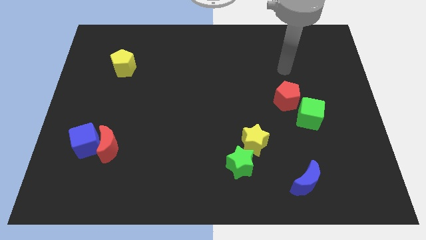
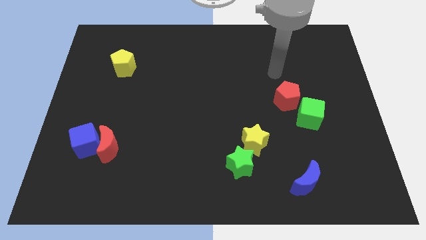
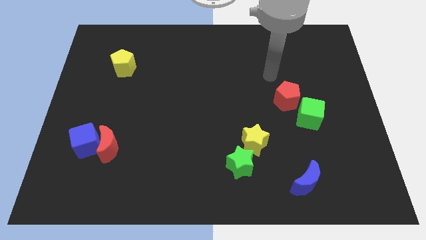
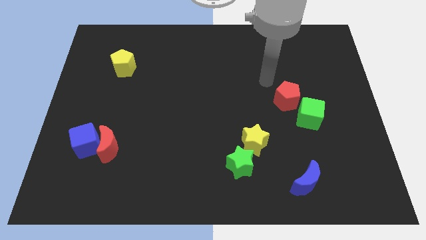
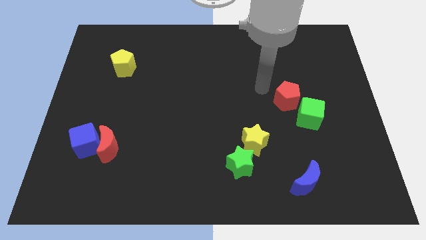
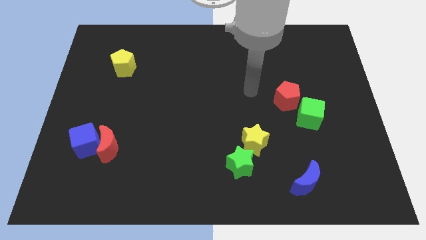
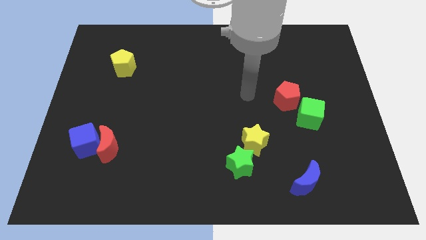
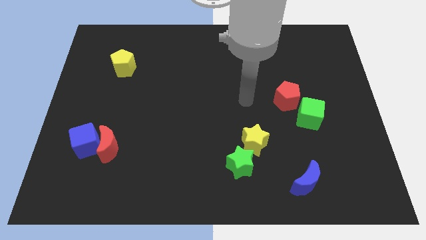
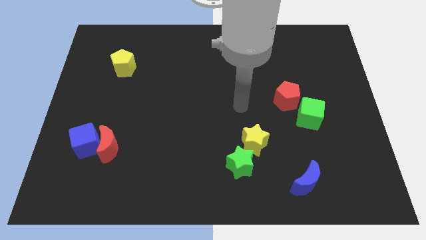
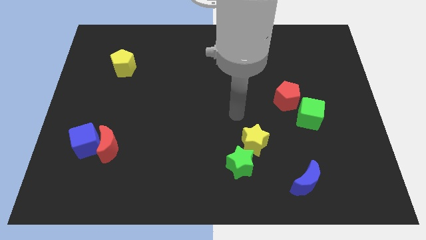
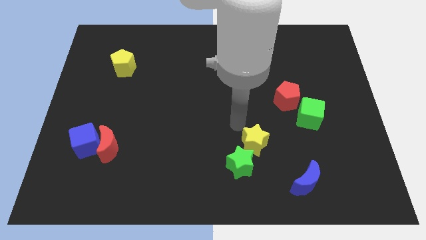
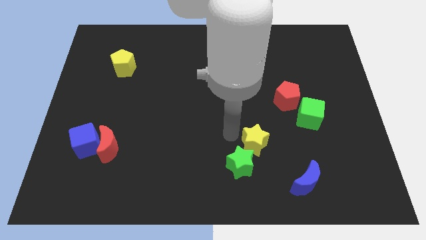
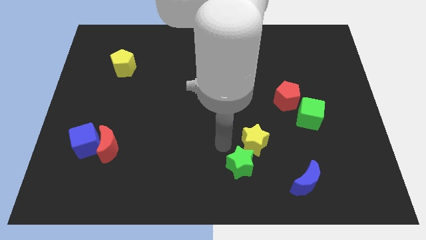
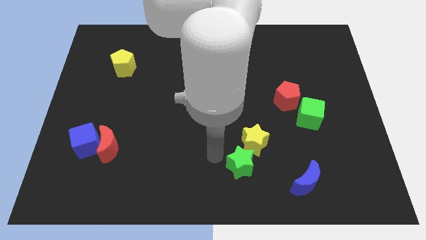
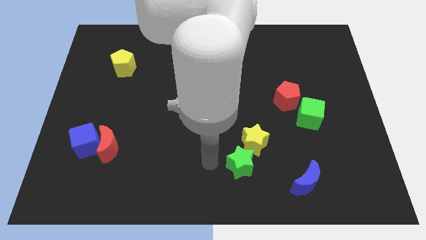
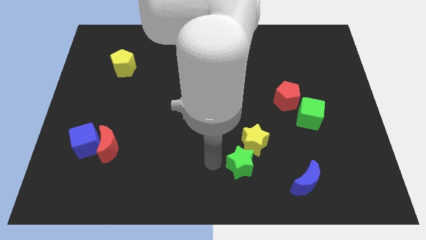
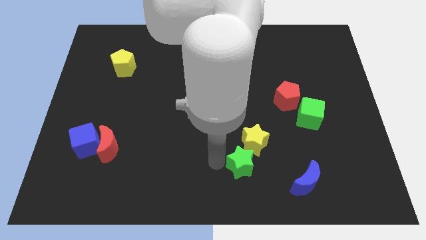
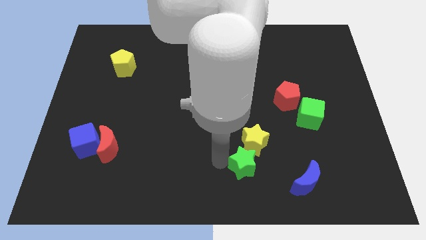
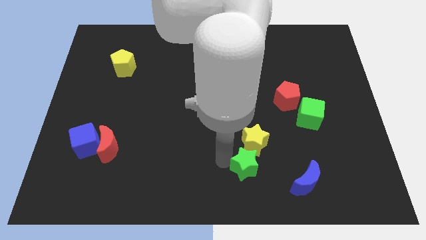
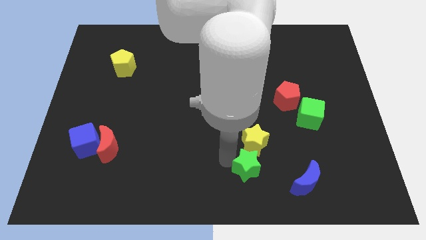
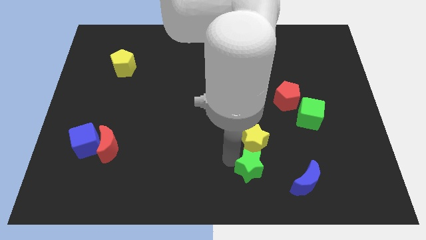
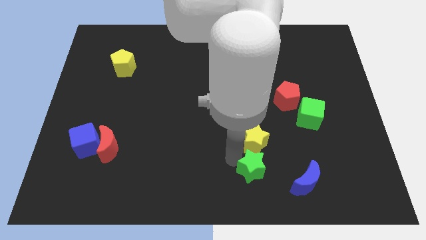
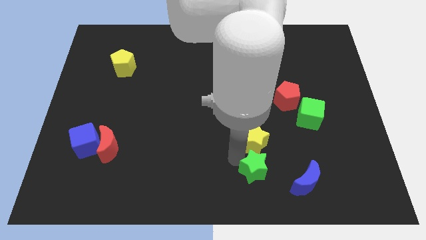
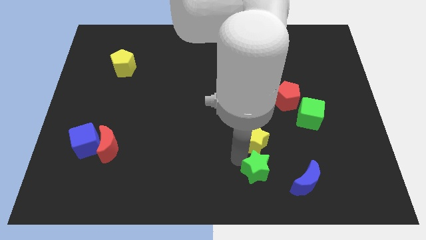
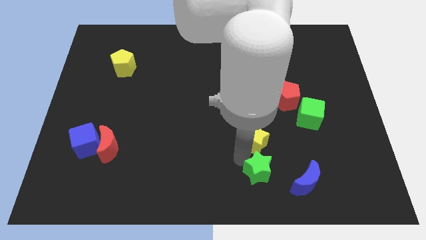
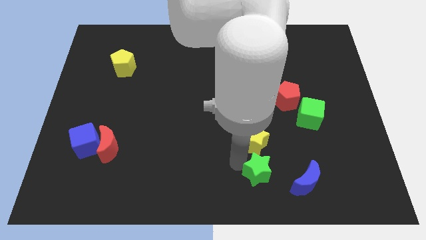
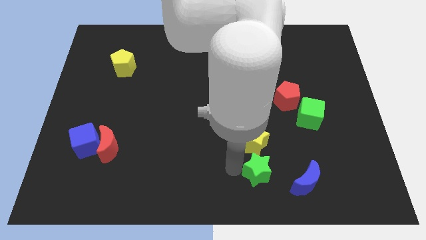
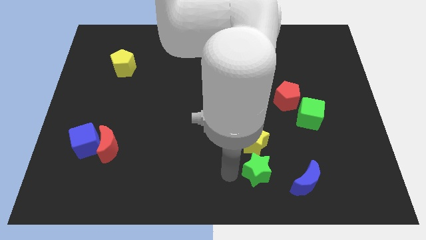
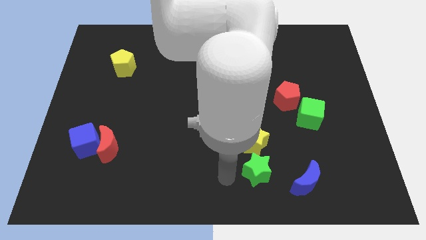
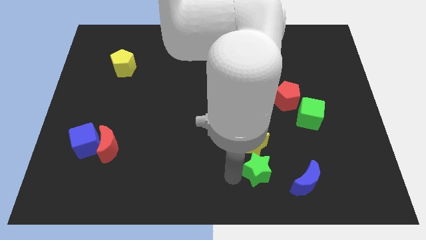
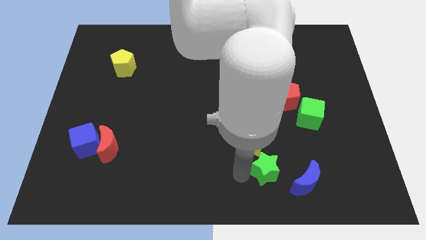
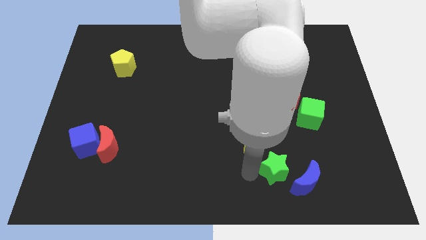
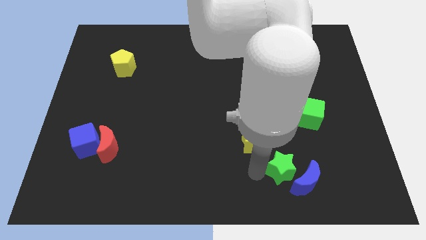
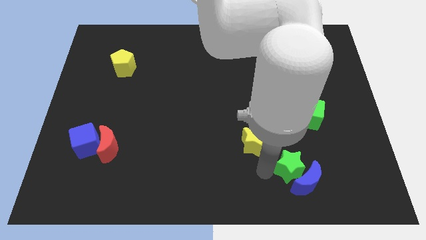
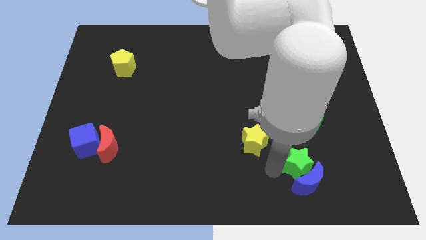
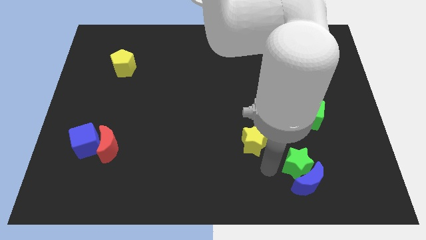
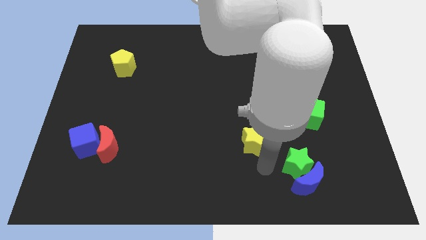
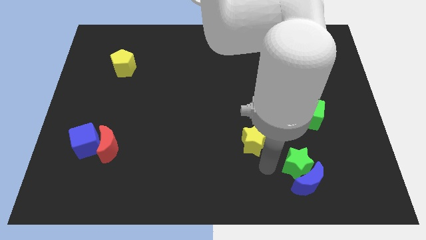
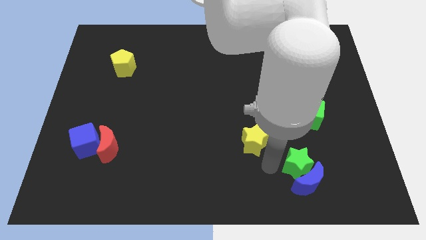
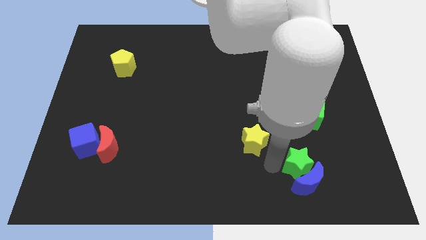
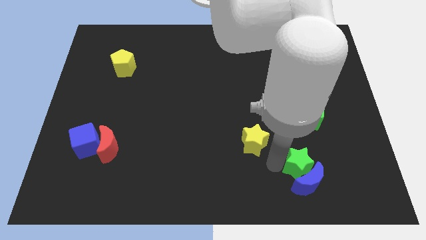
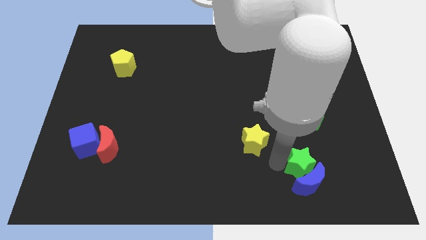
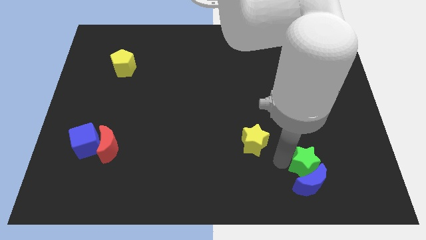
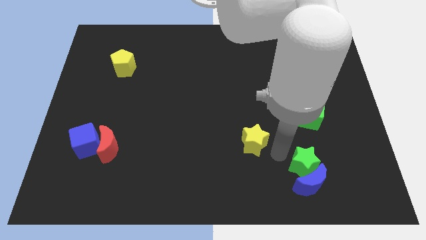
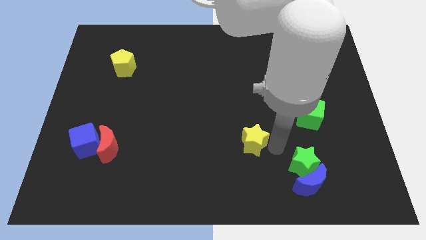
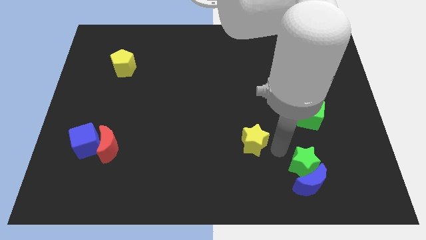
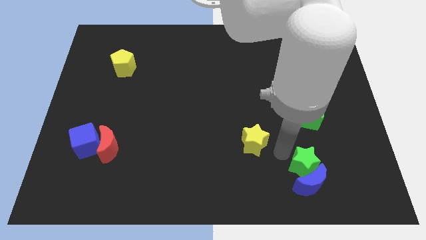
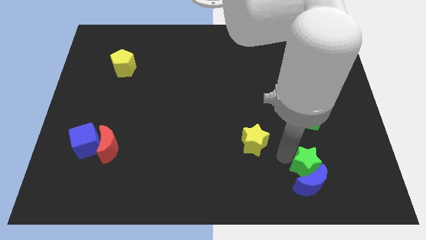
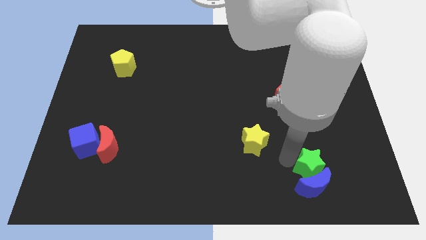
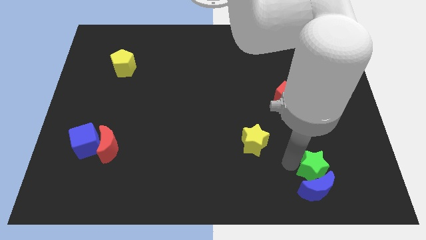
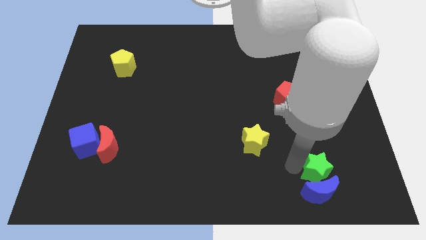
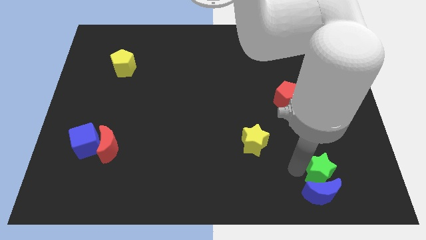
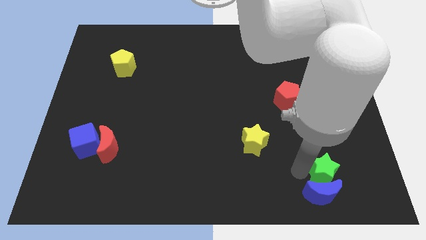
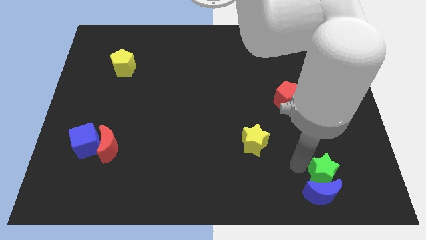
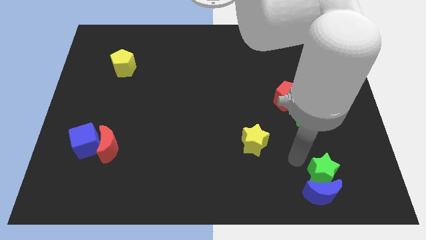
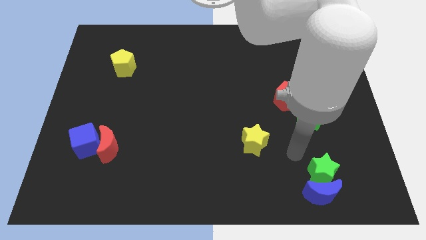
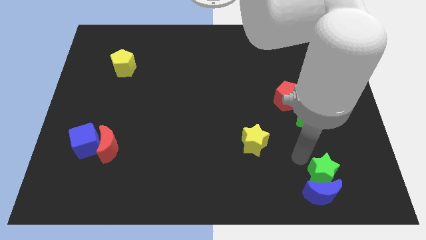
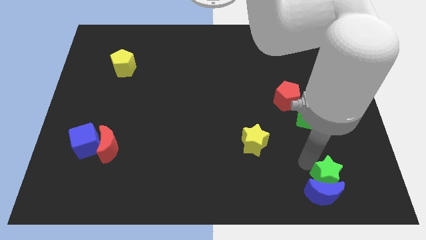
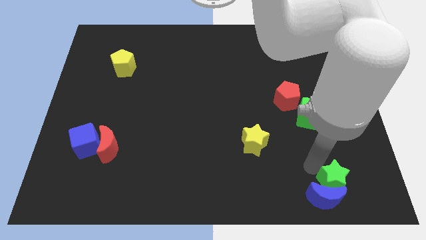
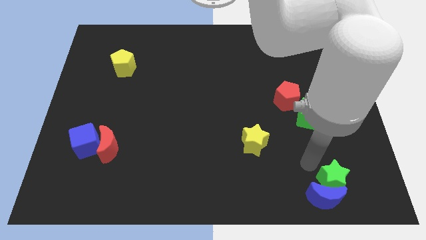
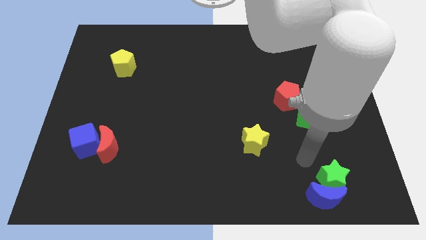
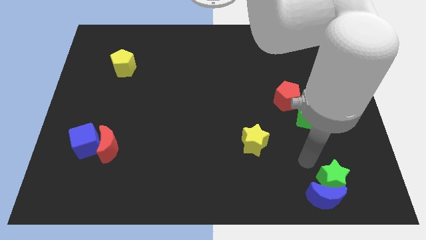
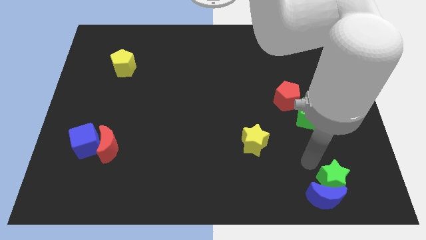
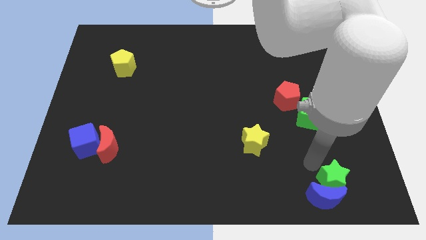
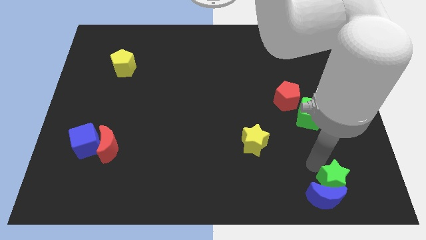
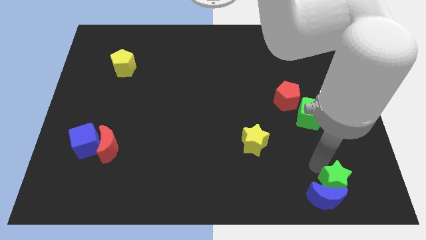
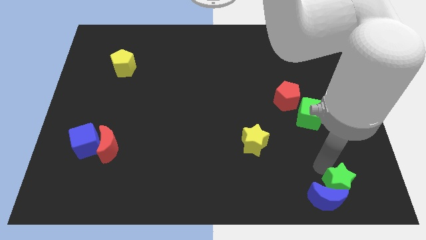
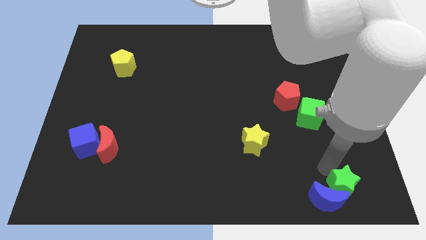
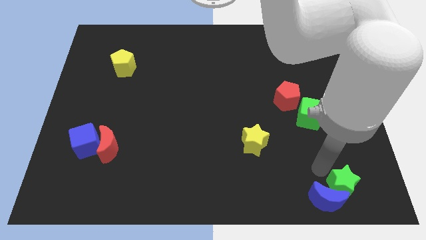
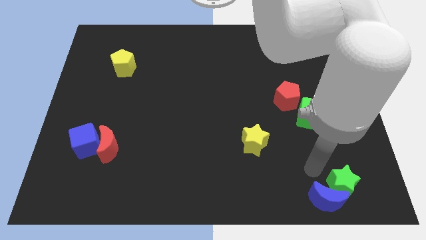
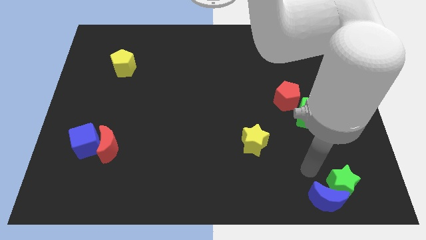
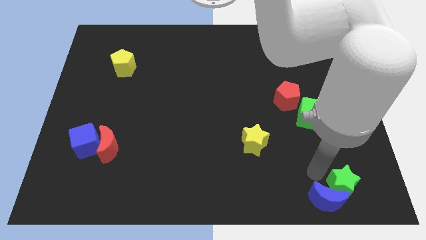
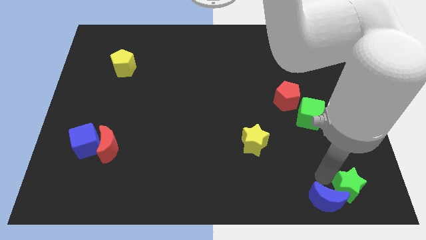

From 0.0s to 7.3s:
slide the green star to the lower right corner
